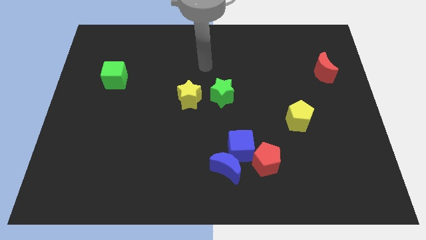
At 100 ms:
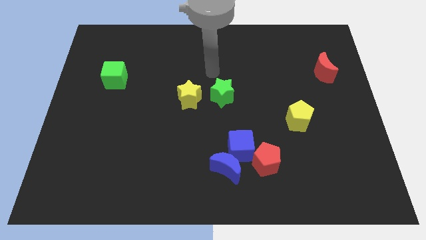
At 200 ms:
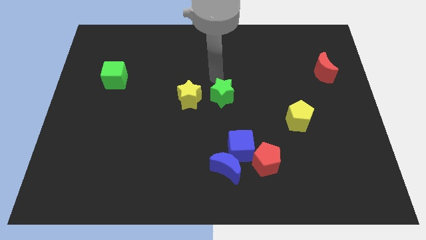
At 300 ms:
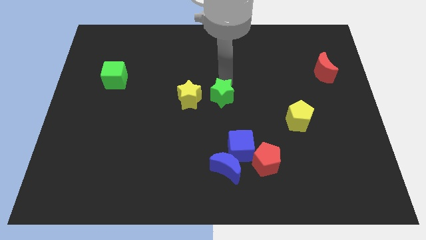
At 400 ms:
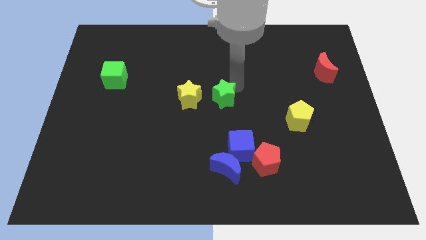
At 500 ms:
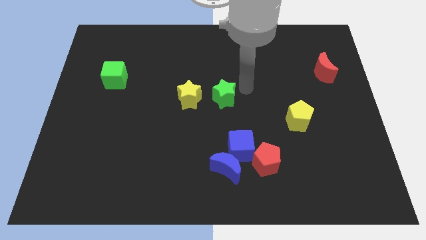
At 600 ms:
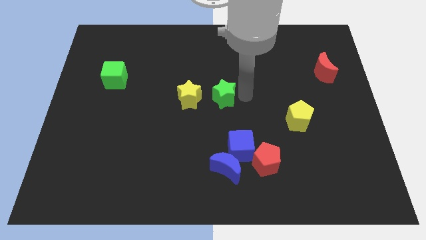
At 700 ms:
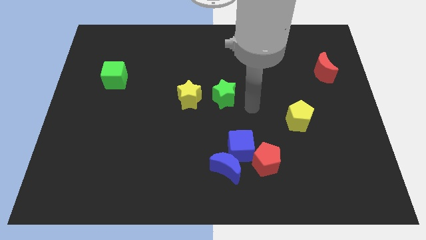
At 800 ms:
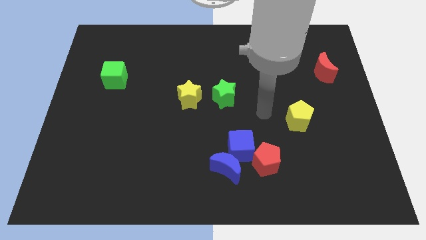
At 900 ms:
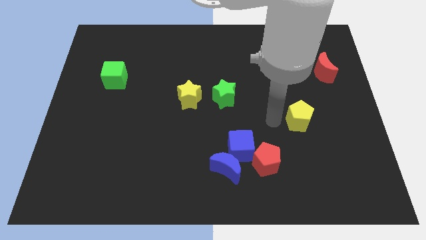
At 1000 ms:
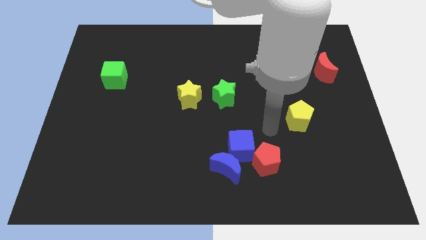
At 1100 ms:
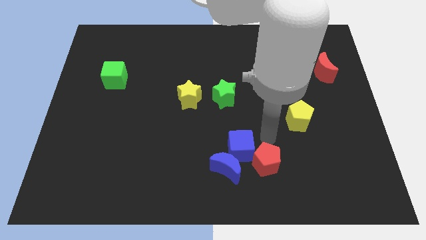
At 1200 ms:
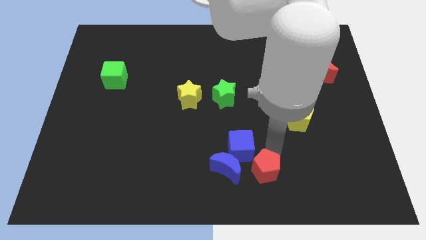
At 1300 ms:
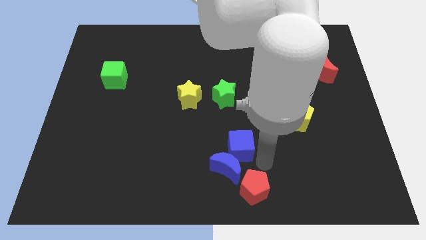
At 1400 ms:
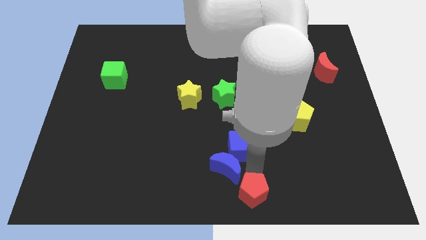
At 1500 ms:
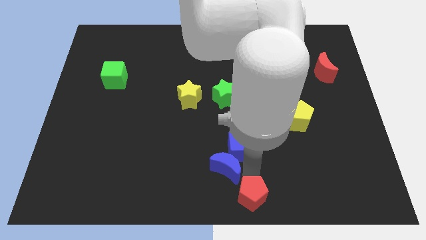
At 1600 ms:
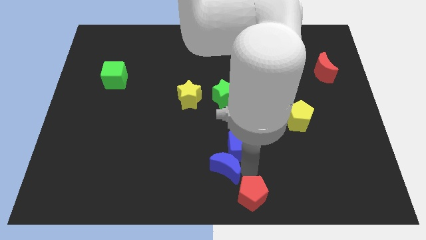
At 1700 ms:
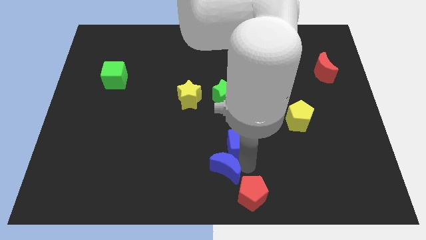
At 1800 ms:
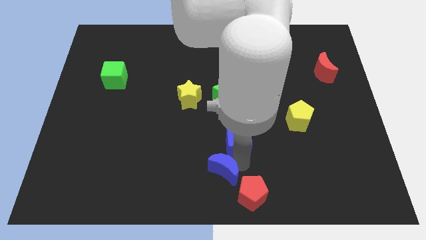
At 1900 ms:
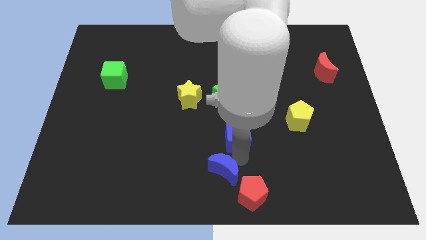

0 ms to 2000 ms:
pull the blue cube apart from the blue moon and red pentagon

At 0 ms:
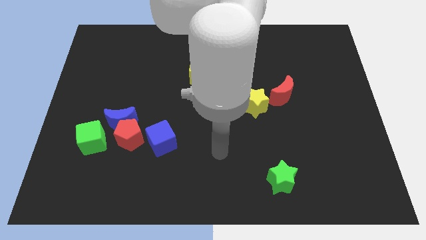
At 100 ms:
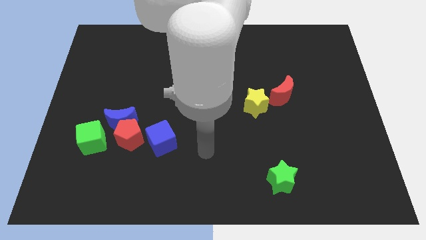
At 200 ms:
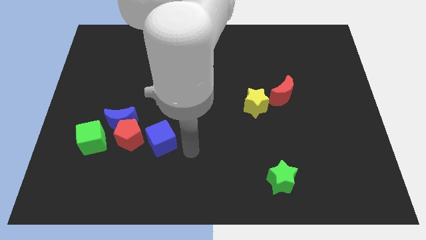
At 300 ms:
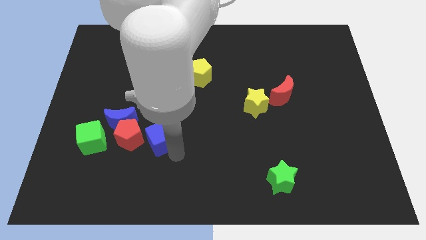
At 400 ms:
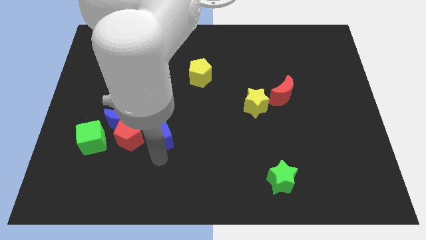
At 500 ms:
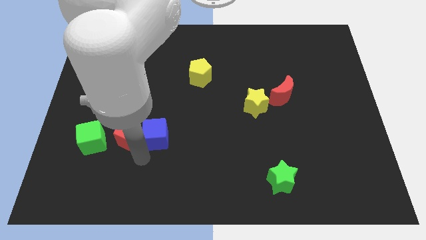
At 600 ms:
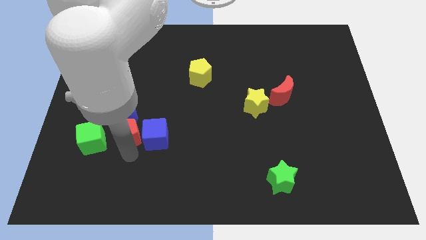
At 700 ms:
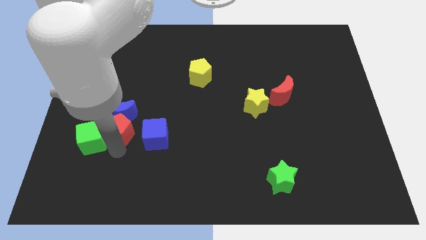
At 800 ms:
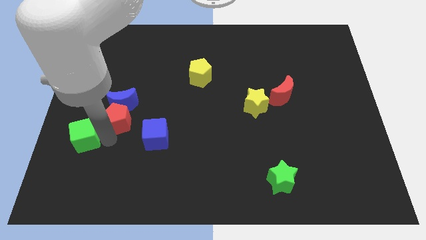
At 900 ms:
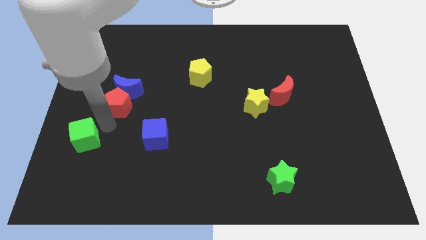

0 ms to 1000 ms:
move the blue moon away from the red pentagon and green cube

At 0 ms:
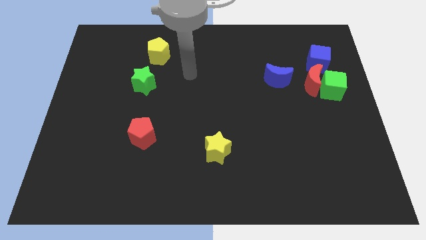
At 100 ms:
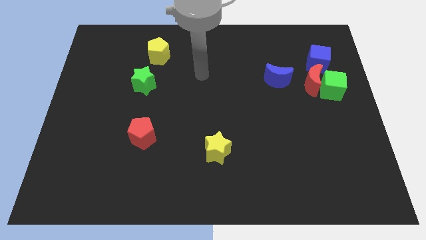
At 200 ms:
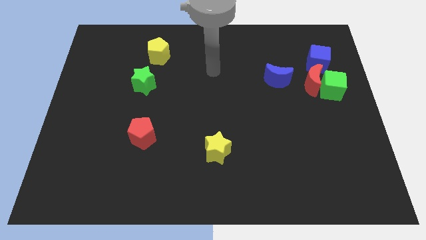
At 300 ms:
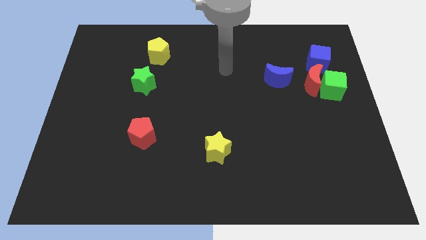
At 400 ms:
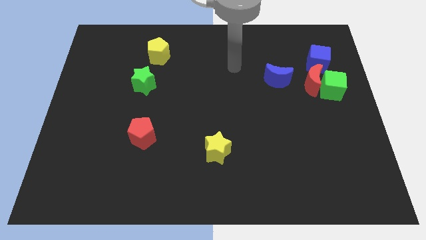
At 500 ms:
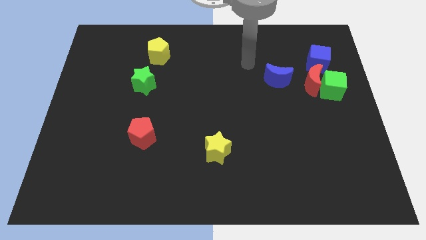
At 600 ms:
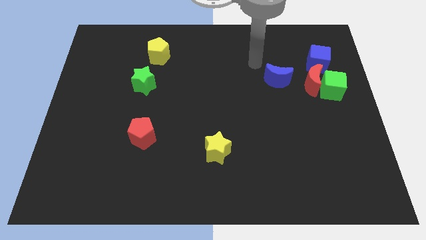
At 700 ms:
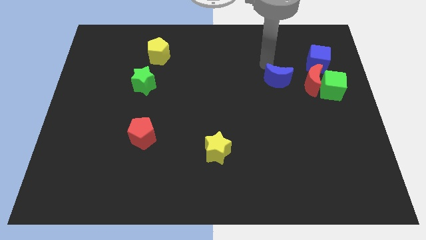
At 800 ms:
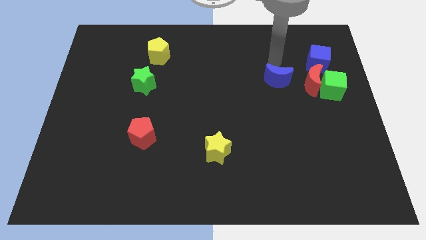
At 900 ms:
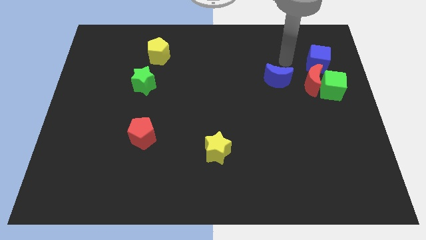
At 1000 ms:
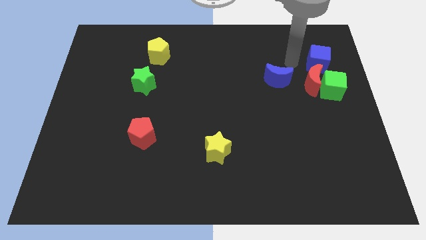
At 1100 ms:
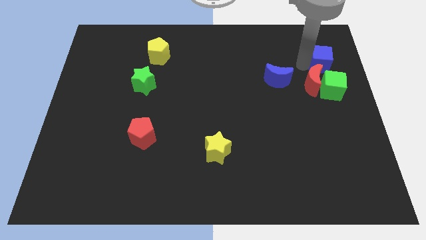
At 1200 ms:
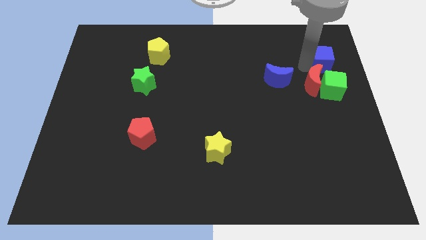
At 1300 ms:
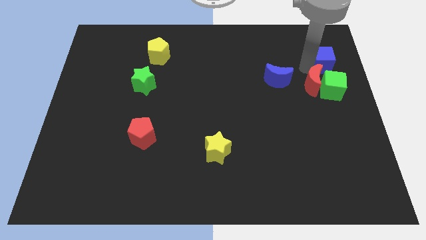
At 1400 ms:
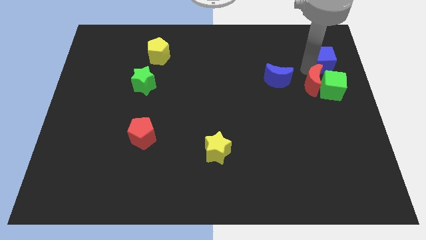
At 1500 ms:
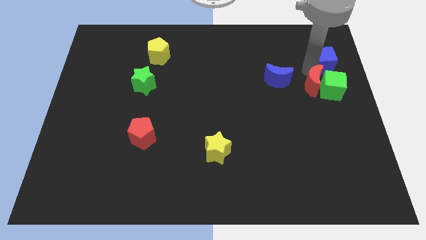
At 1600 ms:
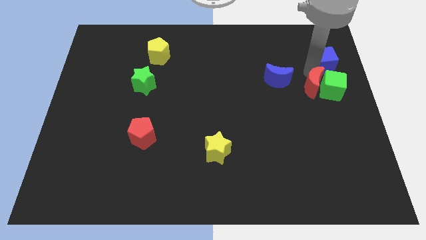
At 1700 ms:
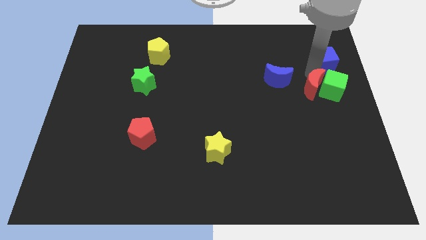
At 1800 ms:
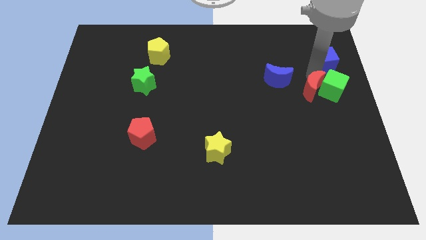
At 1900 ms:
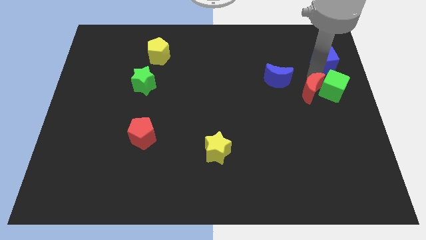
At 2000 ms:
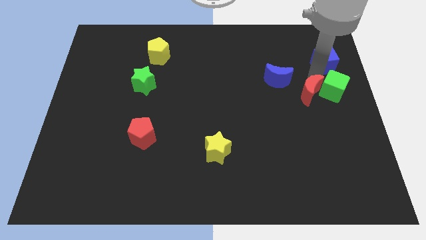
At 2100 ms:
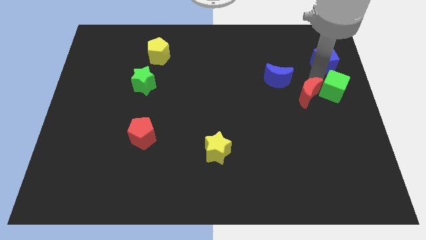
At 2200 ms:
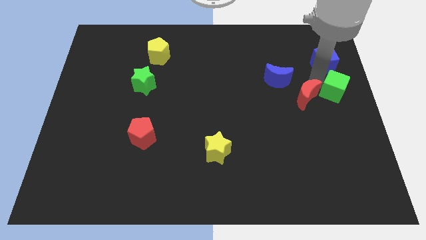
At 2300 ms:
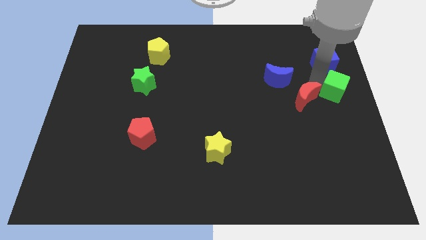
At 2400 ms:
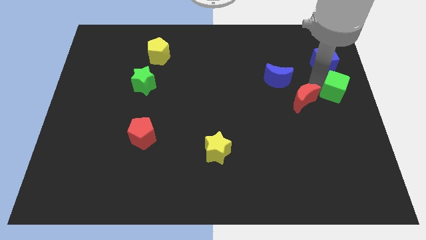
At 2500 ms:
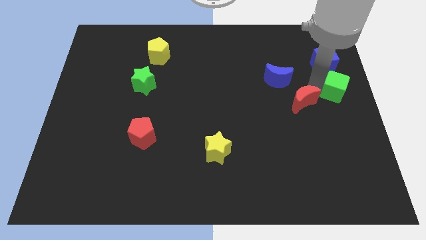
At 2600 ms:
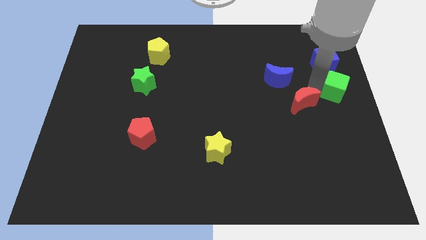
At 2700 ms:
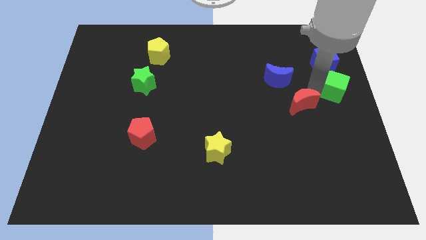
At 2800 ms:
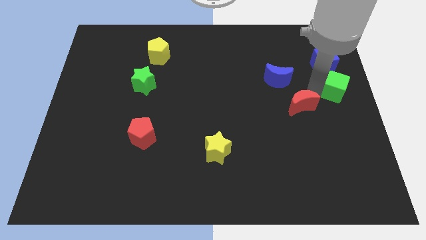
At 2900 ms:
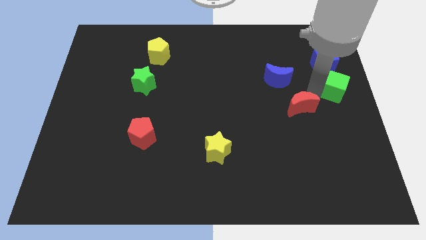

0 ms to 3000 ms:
pull the red moon apart from the green cube, blue cube, and blue moon

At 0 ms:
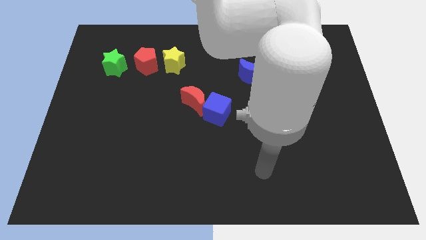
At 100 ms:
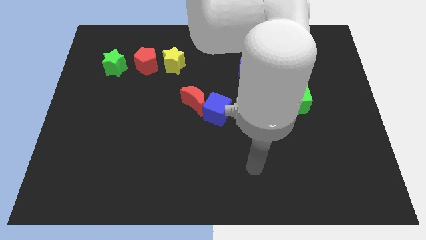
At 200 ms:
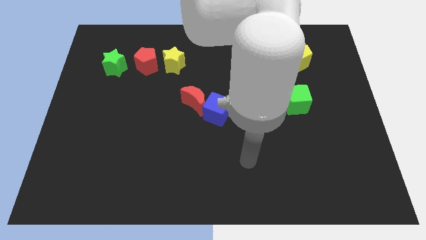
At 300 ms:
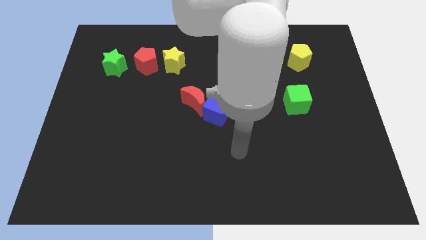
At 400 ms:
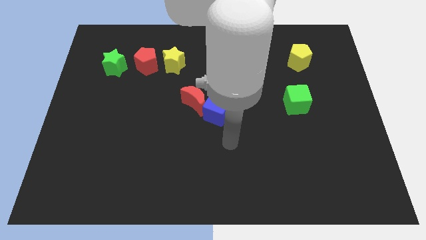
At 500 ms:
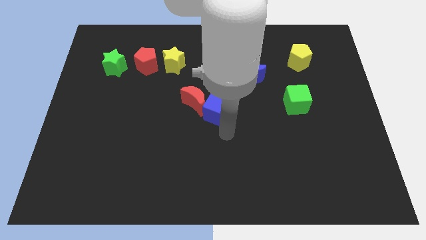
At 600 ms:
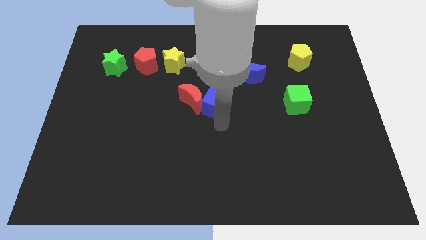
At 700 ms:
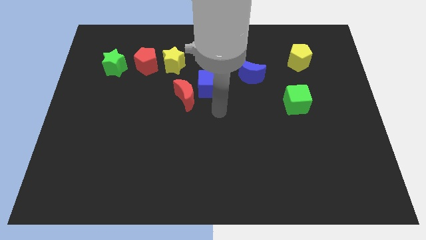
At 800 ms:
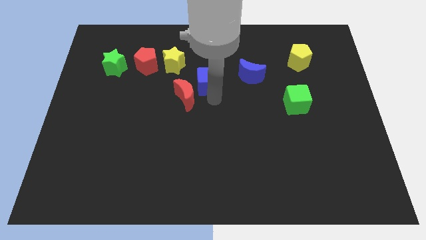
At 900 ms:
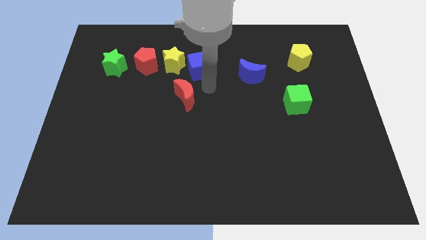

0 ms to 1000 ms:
separate the red moon from the blue cube

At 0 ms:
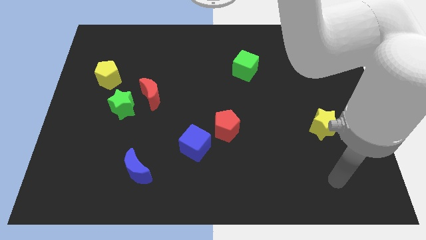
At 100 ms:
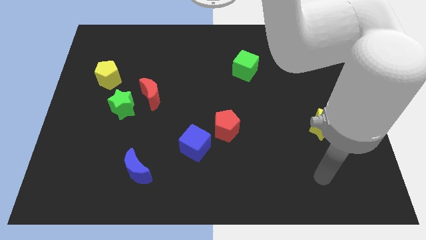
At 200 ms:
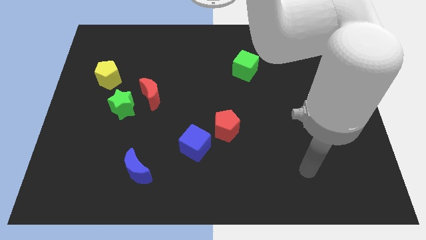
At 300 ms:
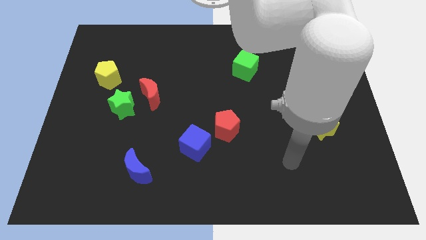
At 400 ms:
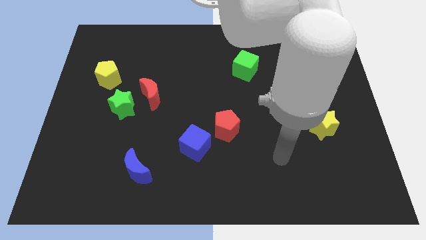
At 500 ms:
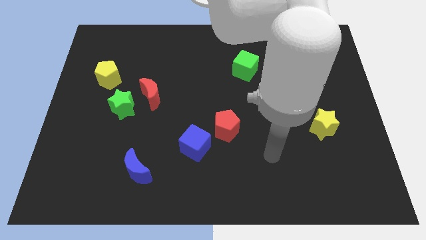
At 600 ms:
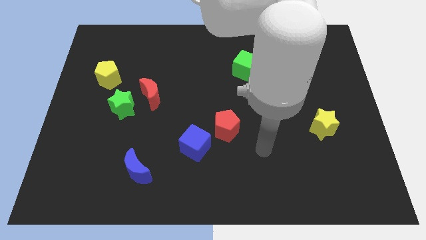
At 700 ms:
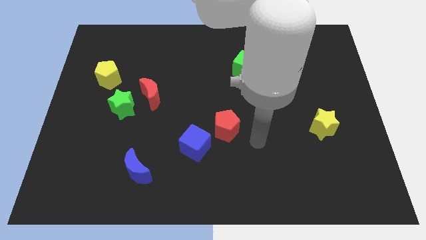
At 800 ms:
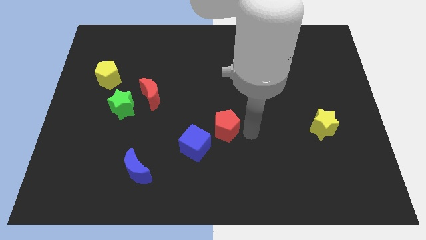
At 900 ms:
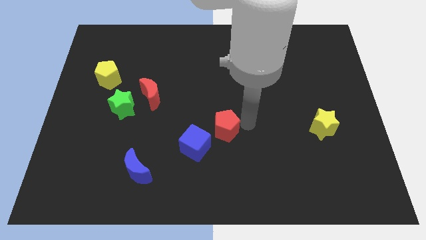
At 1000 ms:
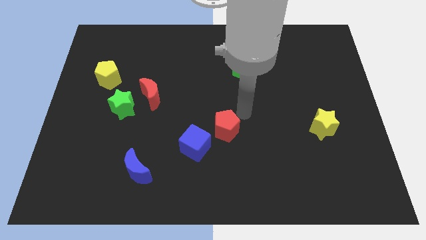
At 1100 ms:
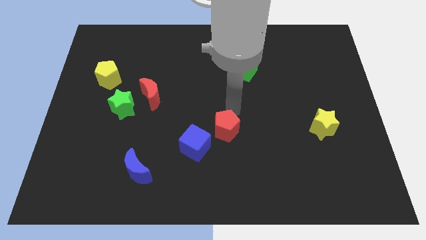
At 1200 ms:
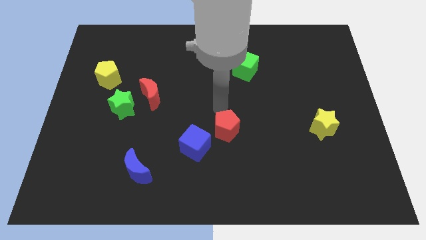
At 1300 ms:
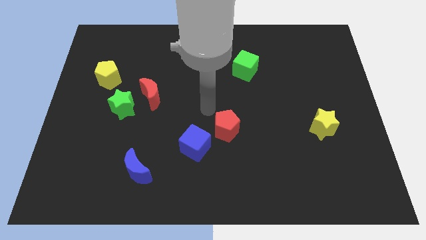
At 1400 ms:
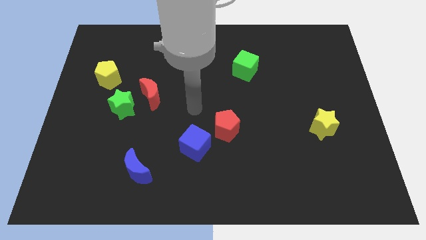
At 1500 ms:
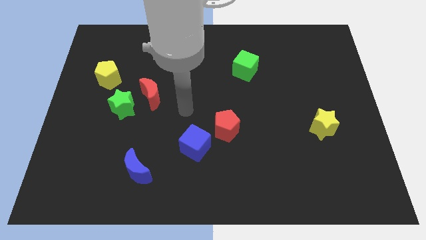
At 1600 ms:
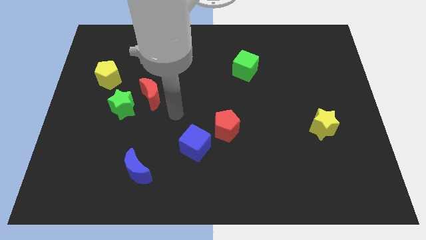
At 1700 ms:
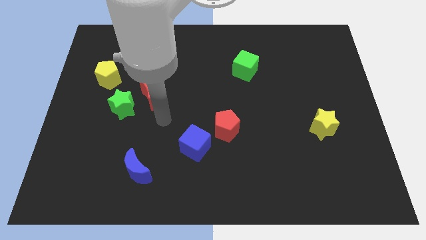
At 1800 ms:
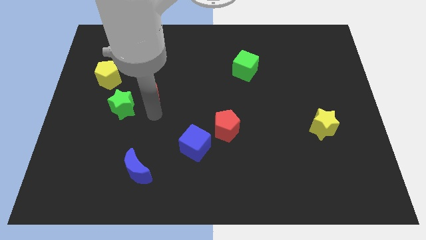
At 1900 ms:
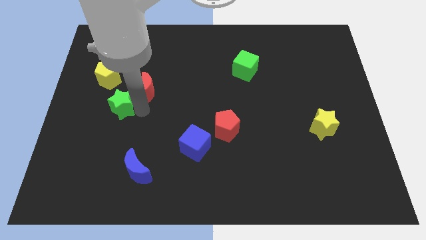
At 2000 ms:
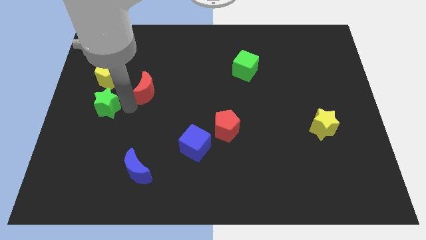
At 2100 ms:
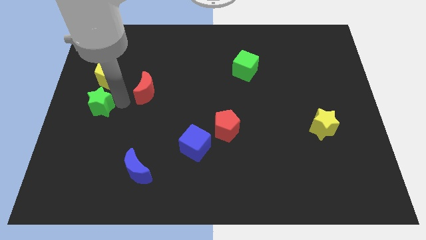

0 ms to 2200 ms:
pull the red moon apart from the green star

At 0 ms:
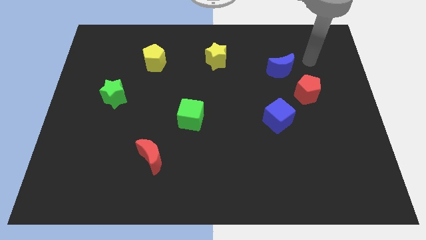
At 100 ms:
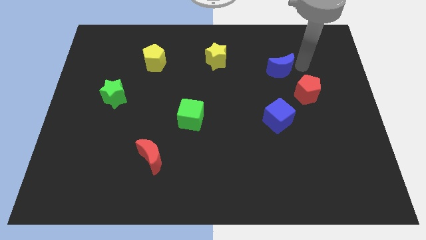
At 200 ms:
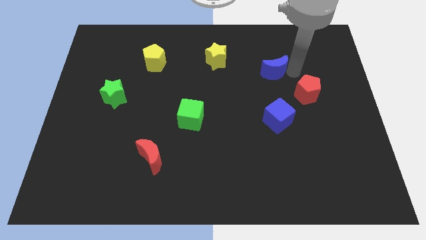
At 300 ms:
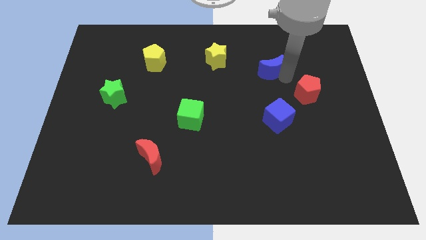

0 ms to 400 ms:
pull the red pentagon apart from the blue moon
